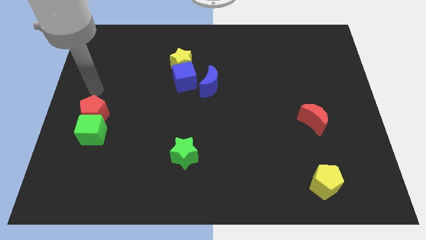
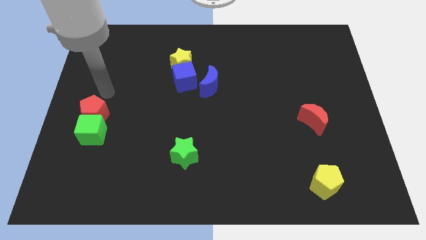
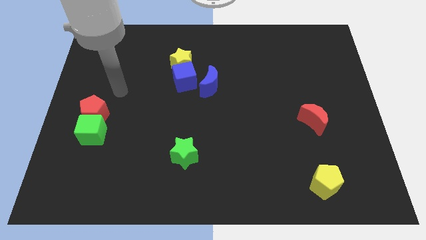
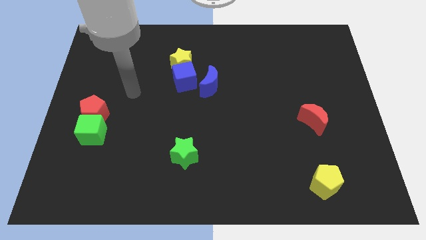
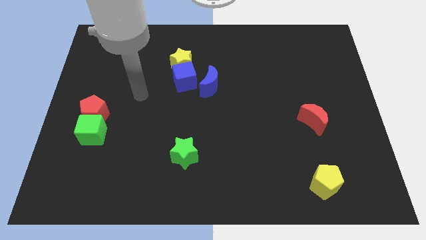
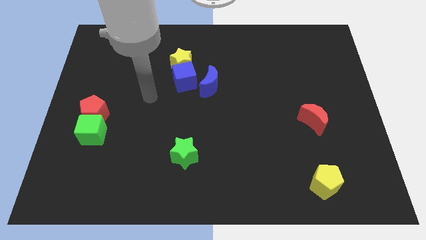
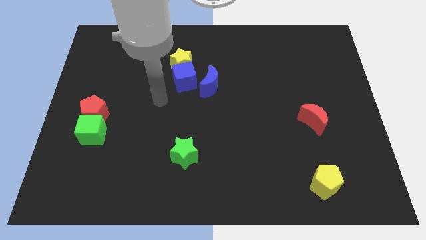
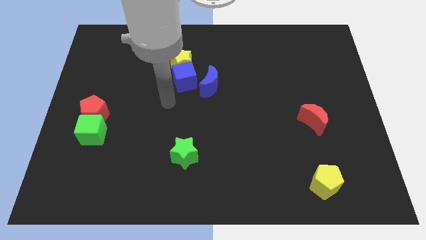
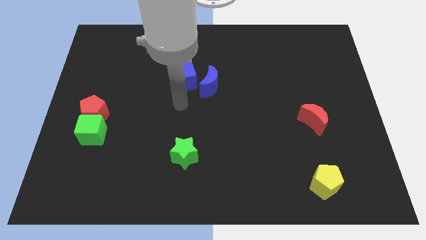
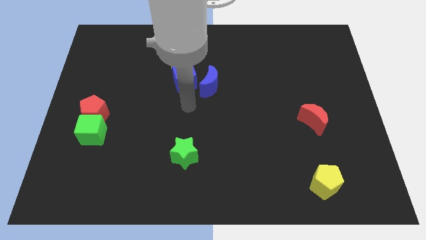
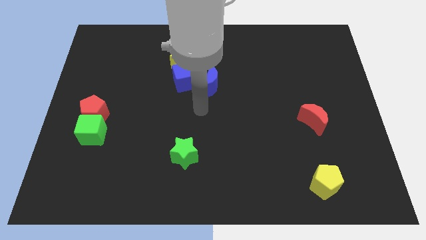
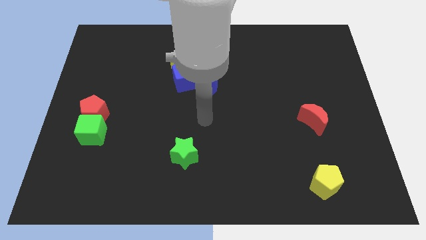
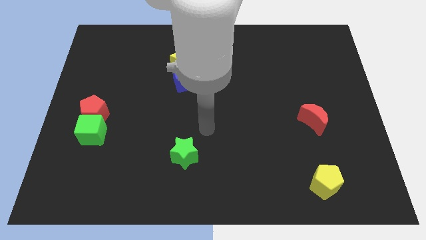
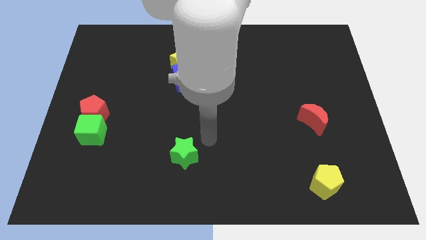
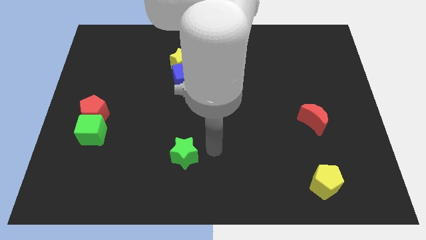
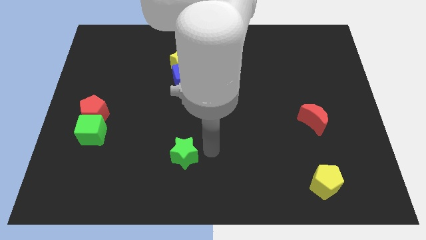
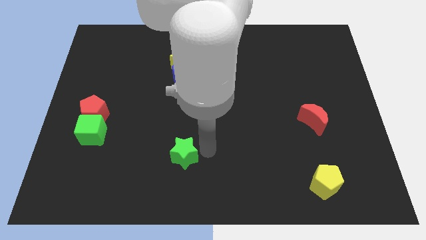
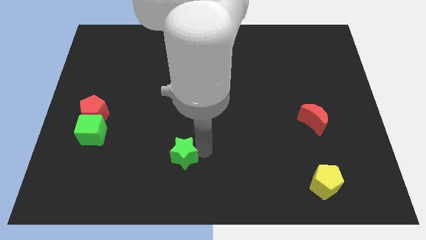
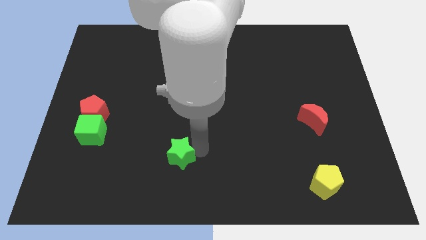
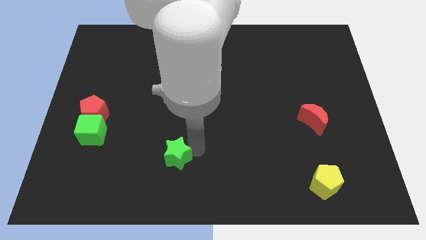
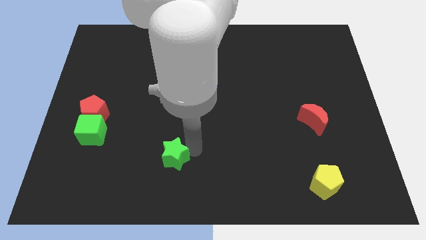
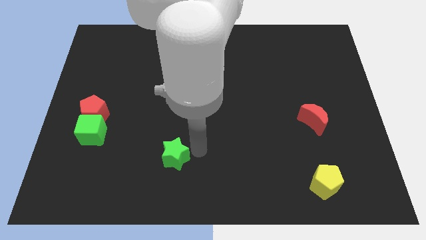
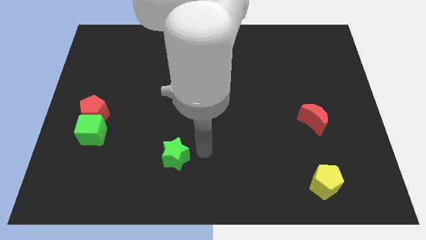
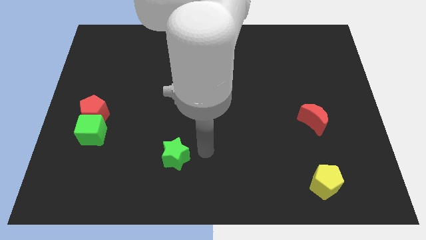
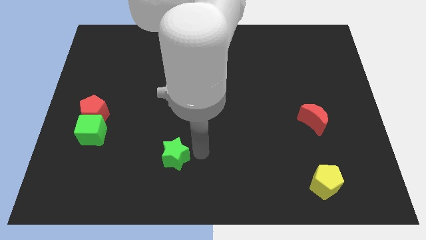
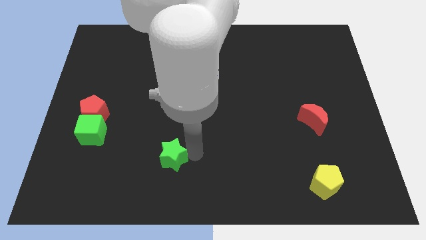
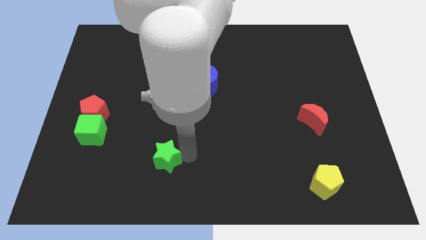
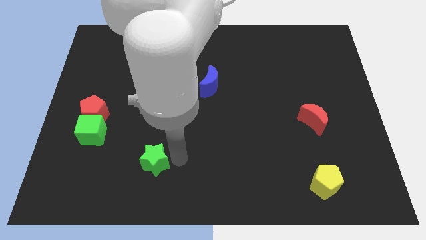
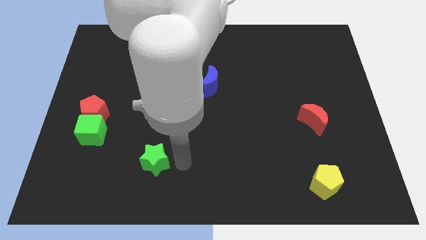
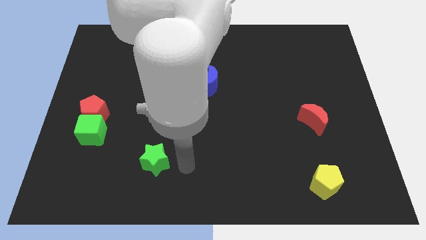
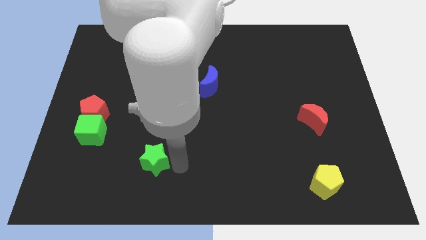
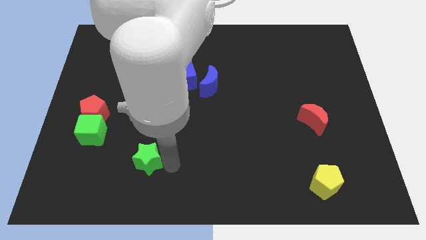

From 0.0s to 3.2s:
slightly move the green star left

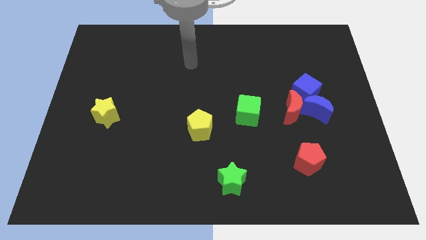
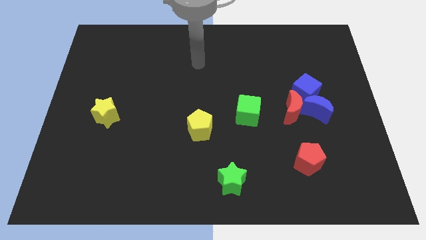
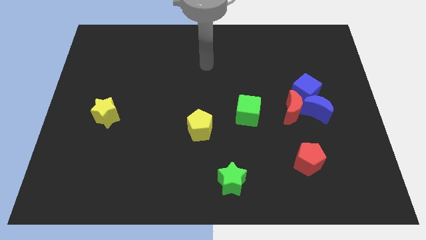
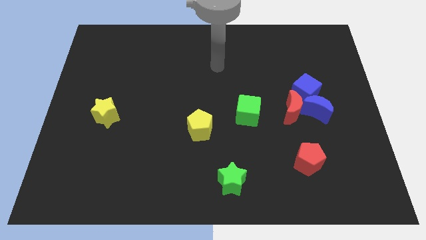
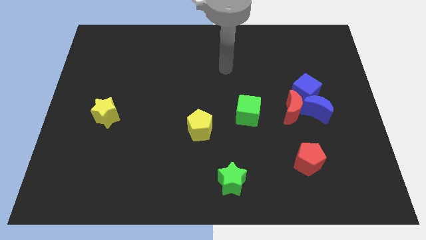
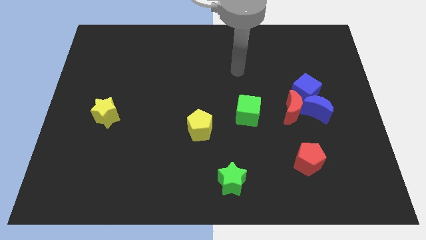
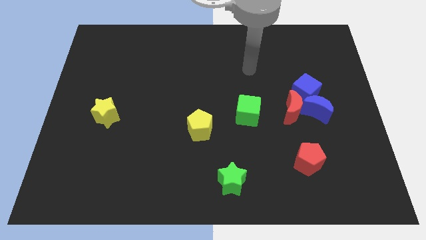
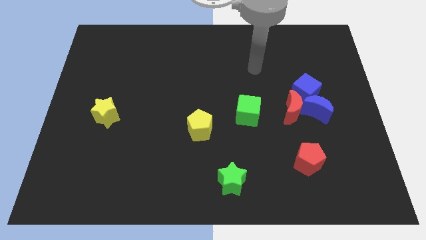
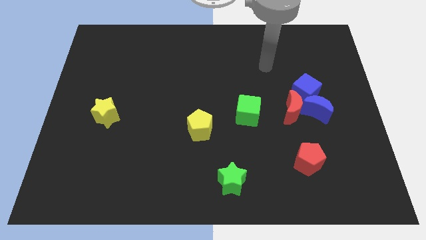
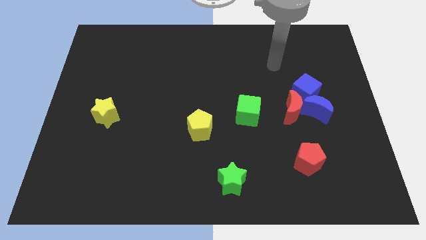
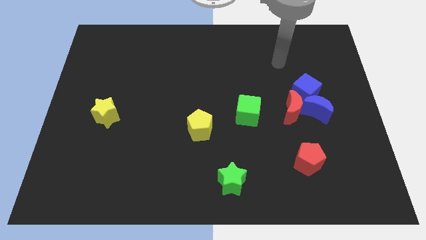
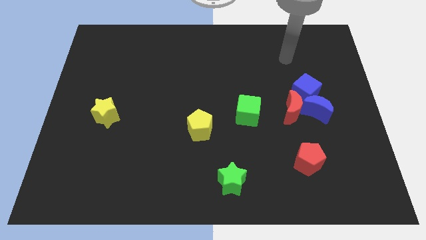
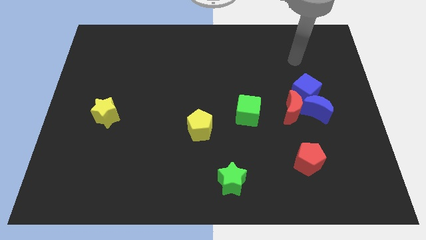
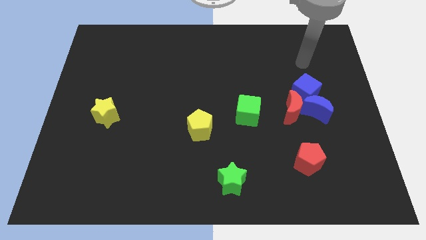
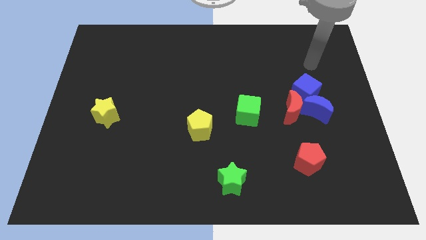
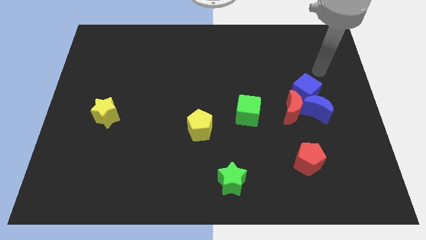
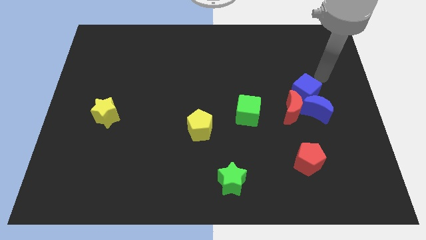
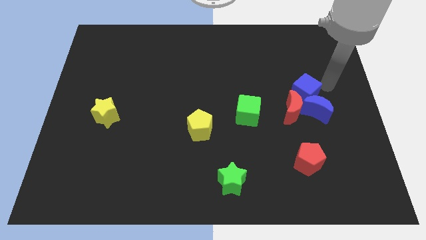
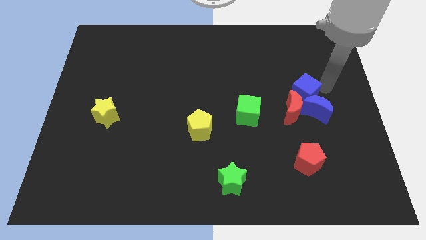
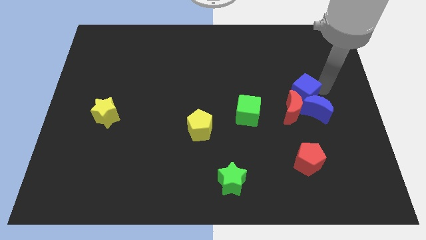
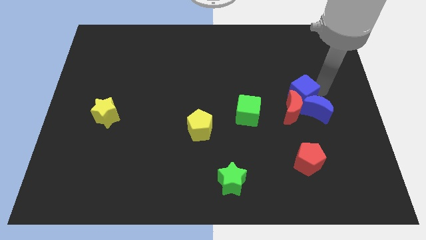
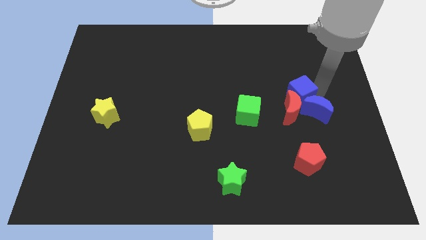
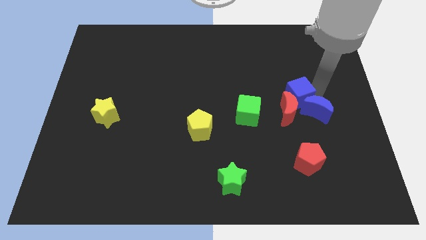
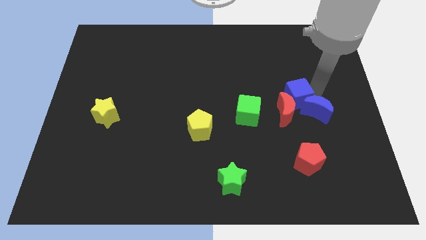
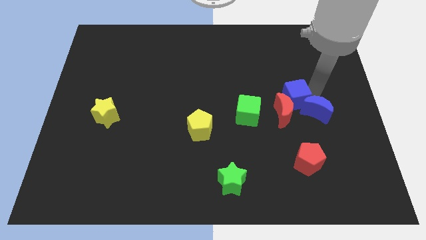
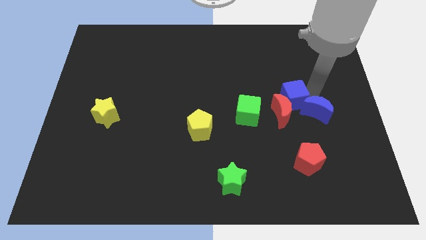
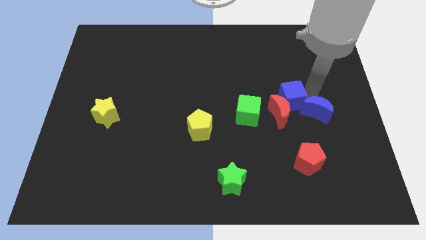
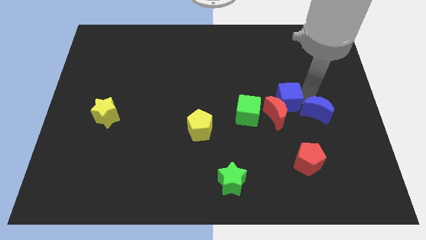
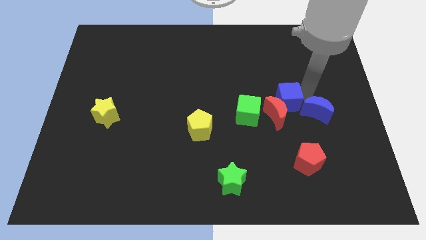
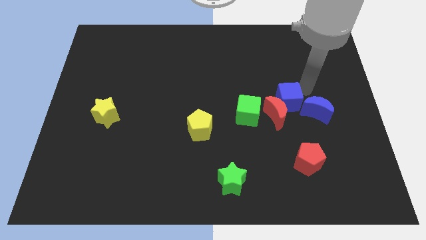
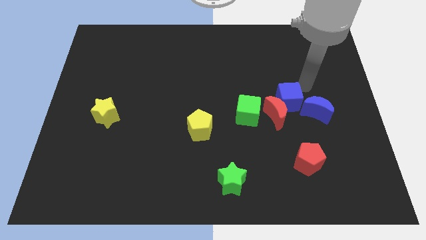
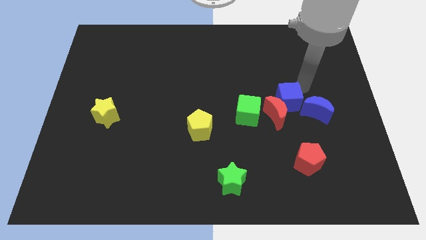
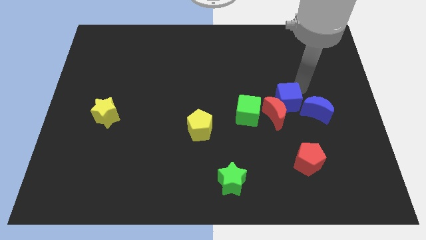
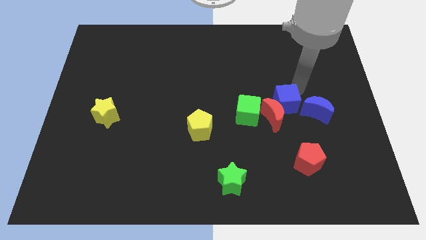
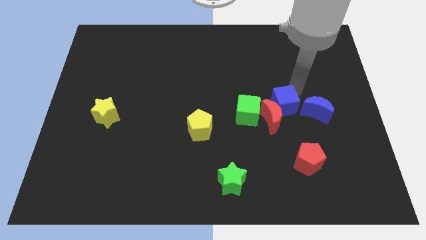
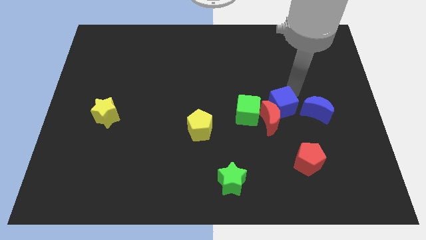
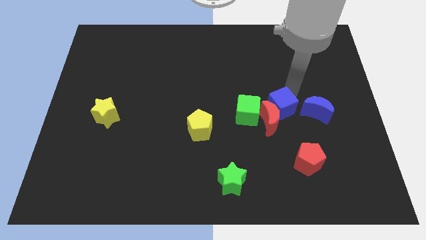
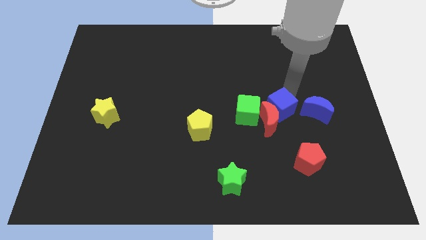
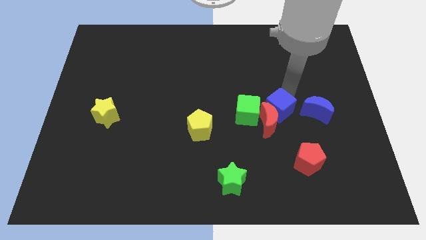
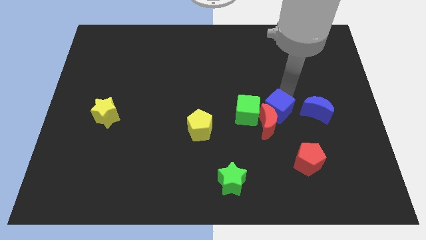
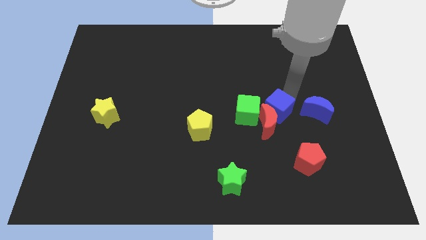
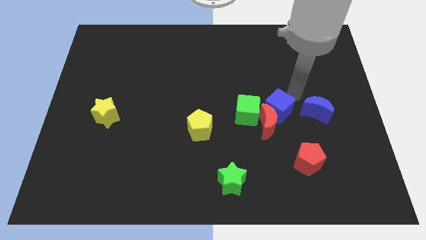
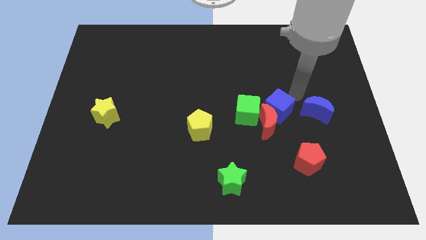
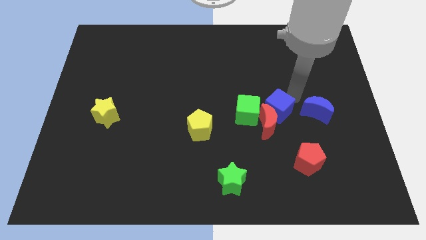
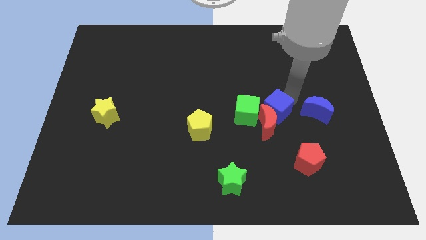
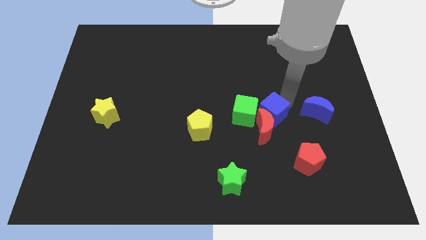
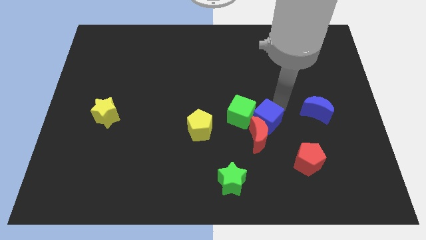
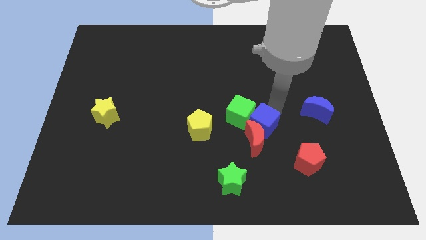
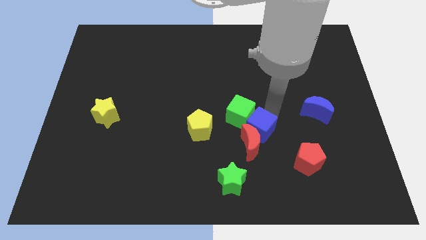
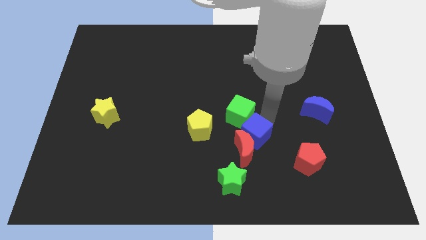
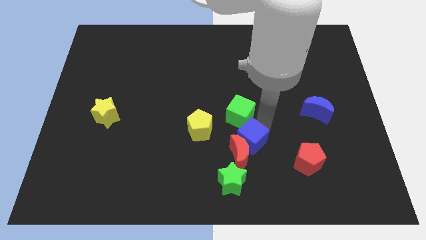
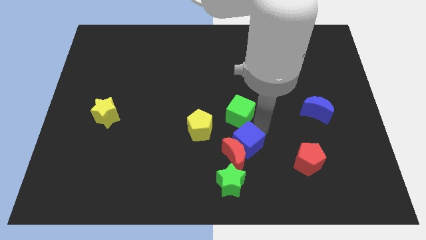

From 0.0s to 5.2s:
move the blue cube down and left
